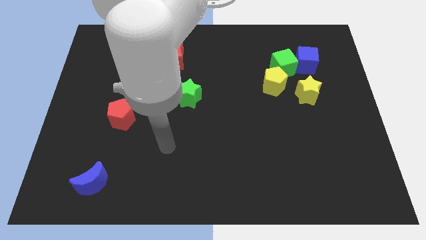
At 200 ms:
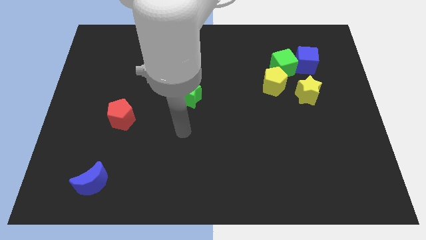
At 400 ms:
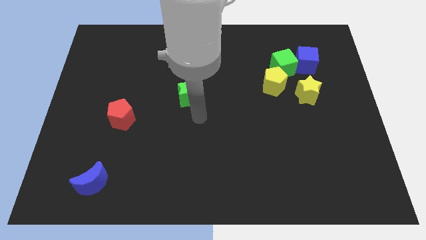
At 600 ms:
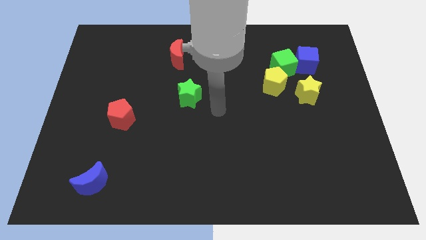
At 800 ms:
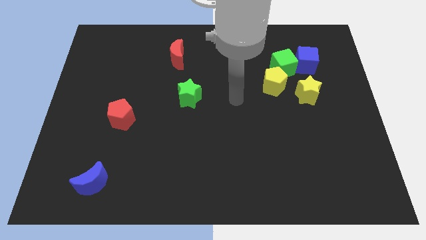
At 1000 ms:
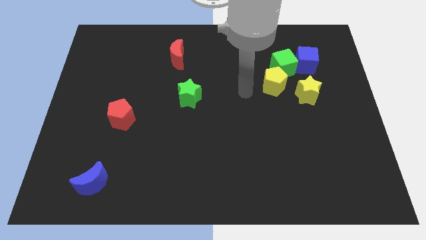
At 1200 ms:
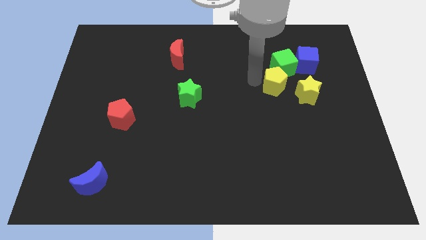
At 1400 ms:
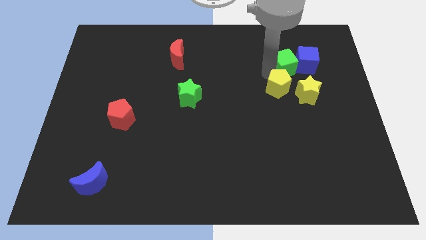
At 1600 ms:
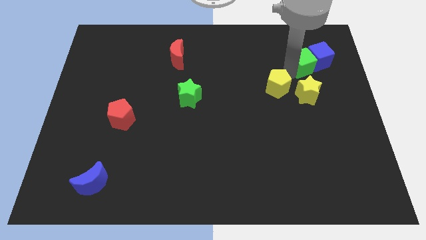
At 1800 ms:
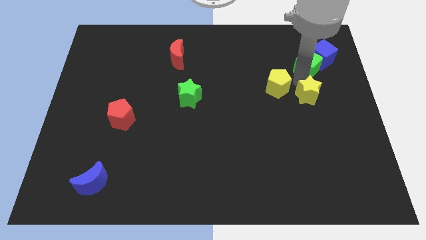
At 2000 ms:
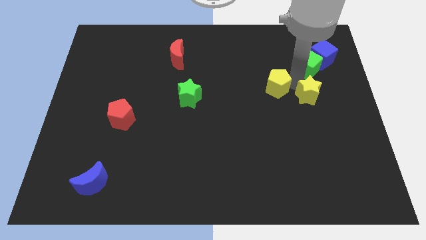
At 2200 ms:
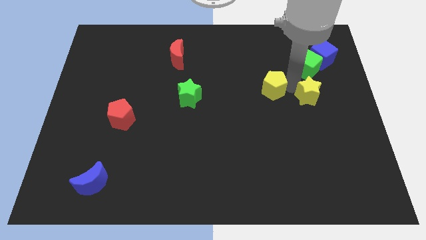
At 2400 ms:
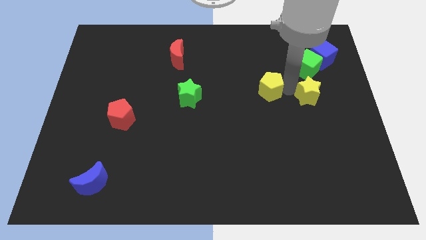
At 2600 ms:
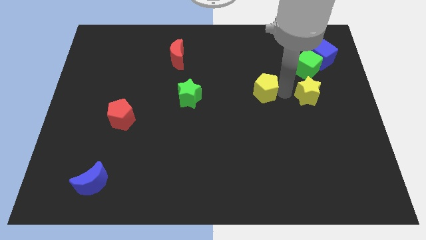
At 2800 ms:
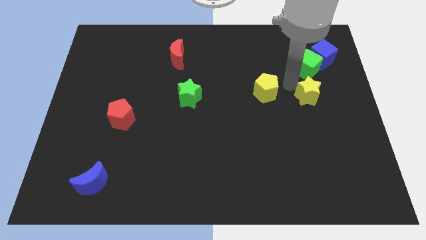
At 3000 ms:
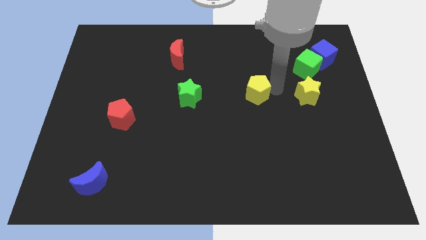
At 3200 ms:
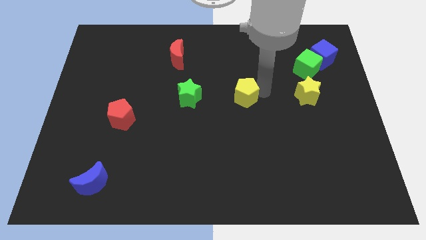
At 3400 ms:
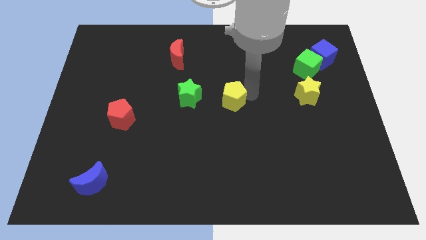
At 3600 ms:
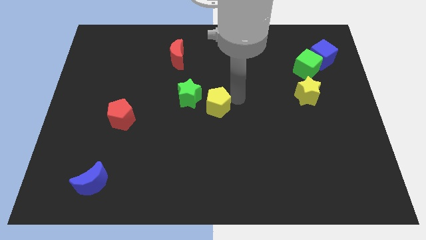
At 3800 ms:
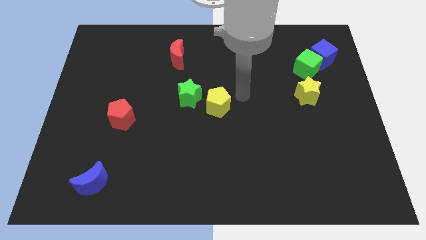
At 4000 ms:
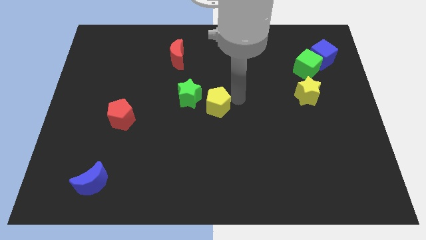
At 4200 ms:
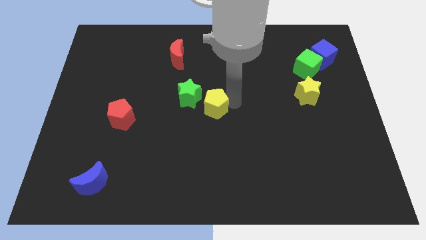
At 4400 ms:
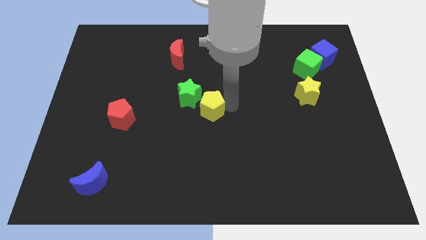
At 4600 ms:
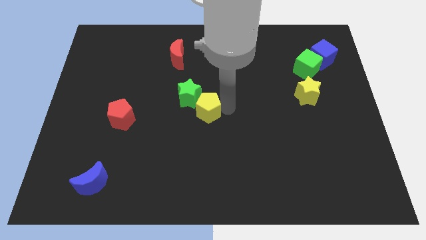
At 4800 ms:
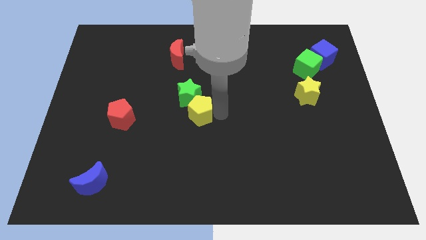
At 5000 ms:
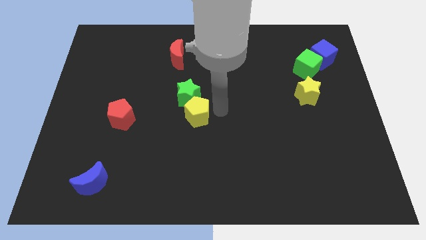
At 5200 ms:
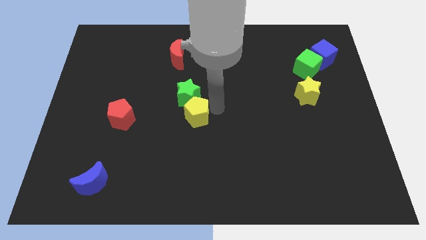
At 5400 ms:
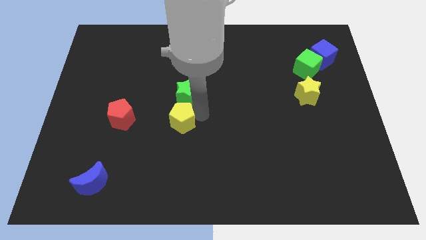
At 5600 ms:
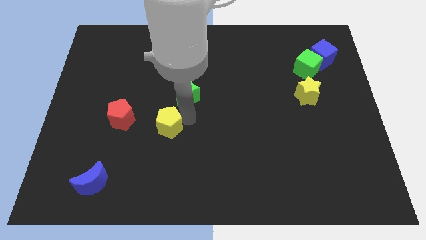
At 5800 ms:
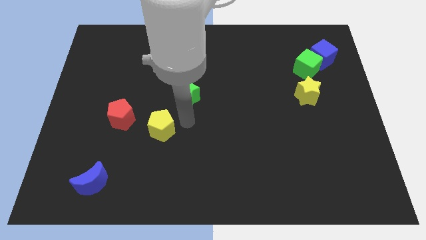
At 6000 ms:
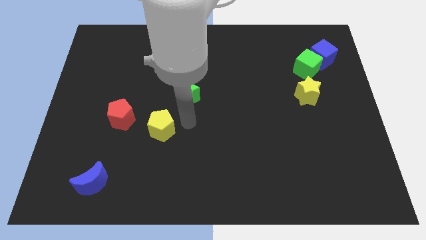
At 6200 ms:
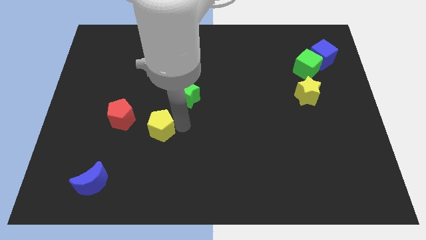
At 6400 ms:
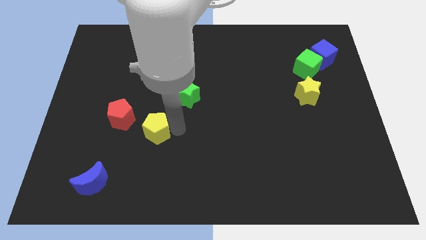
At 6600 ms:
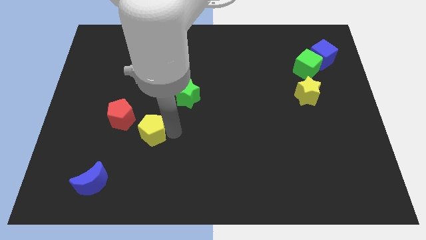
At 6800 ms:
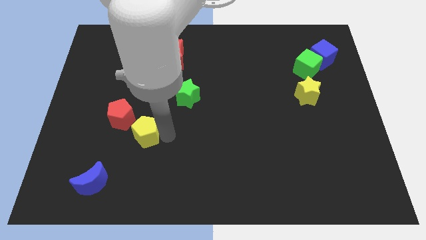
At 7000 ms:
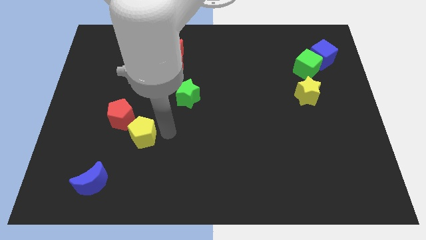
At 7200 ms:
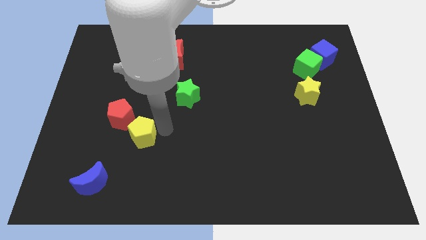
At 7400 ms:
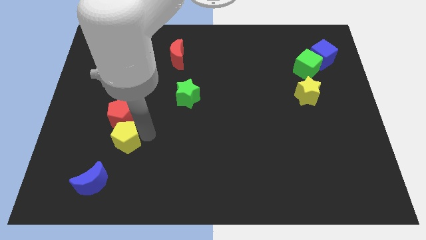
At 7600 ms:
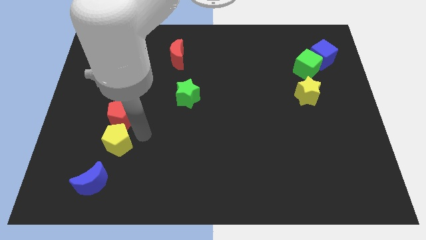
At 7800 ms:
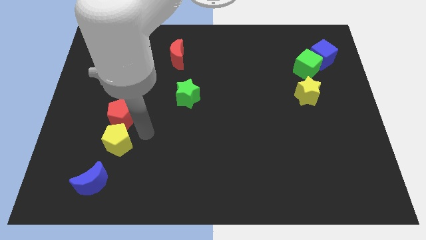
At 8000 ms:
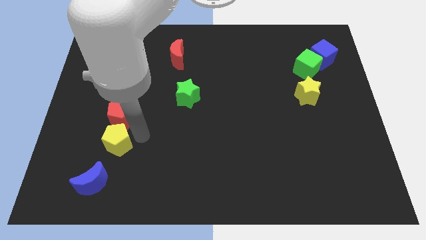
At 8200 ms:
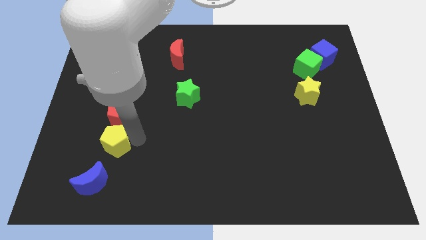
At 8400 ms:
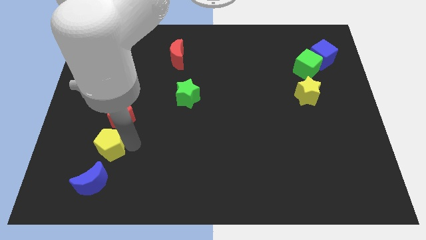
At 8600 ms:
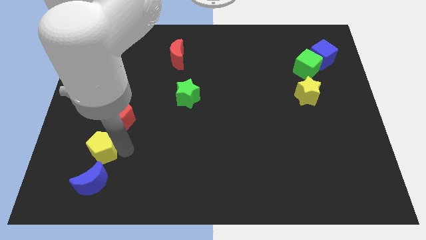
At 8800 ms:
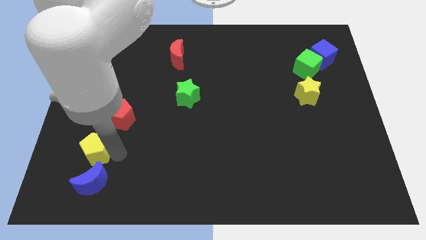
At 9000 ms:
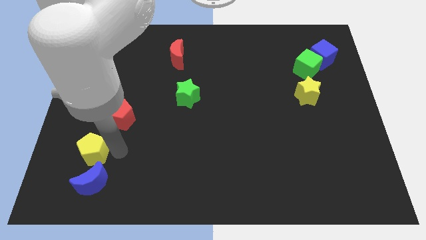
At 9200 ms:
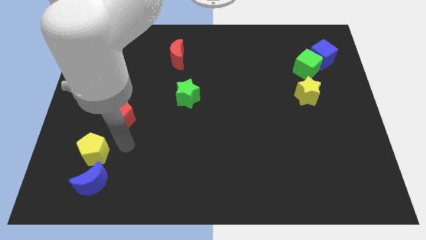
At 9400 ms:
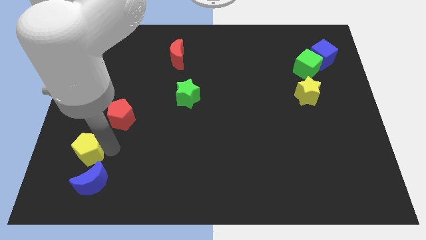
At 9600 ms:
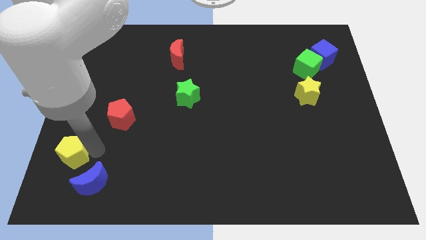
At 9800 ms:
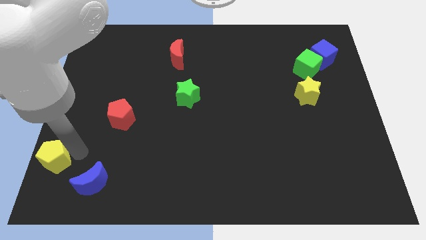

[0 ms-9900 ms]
push the yellow pentagon to the lower left corner

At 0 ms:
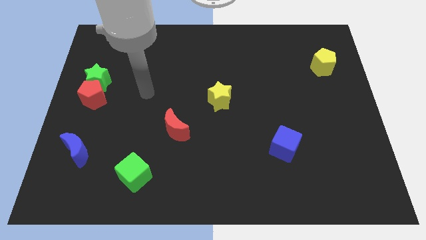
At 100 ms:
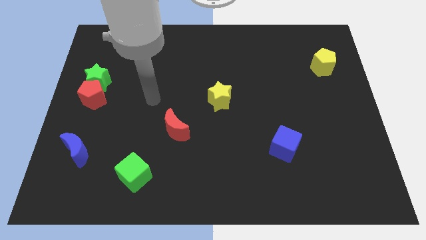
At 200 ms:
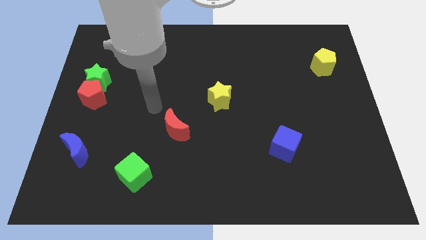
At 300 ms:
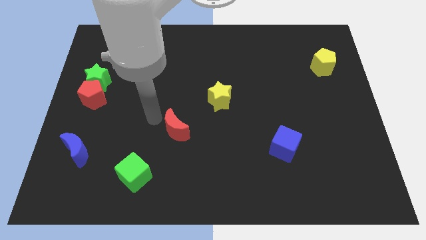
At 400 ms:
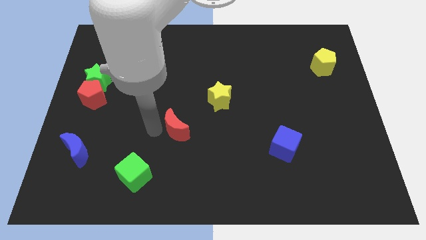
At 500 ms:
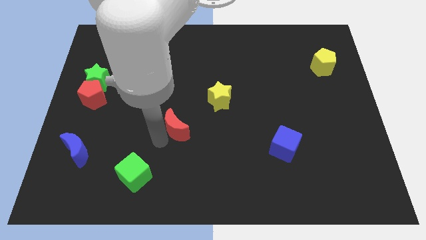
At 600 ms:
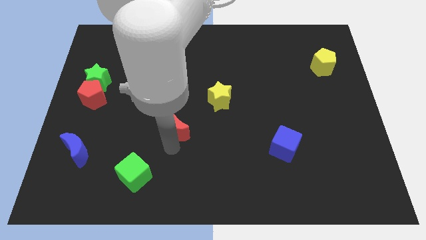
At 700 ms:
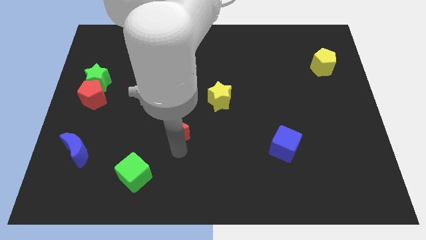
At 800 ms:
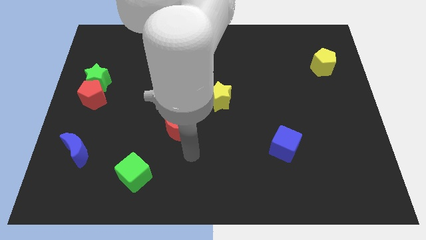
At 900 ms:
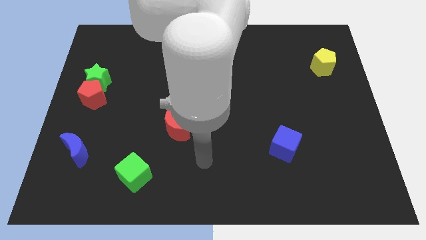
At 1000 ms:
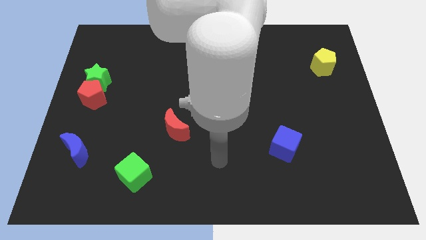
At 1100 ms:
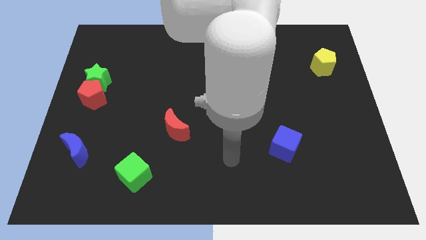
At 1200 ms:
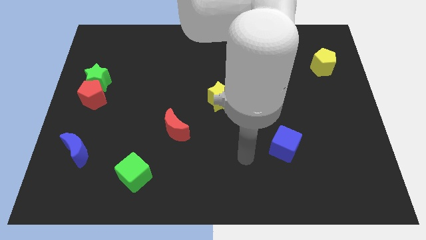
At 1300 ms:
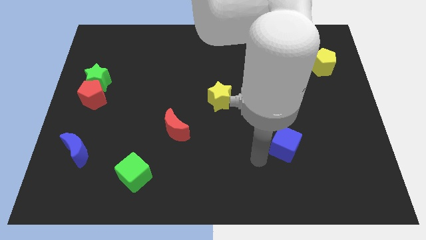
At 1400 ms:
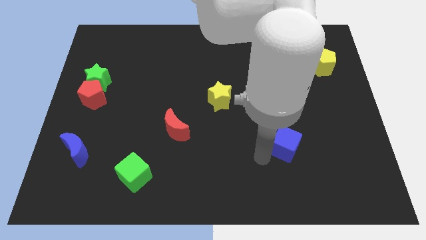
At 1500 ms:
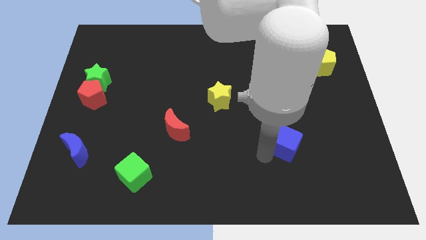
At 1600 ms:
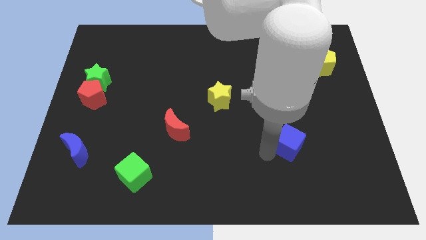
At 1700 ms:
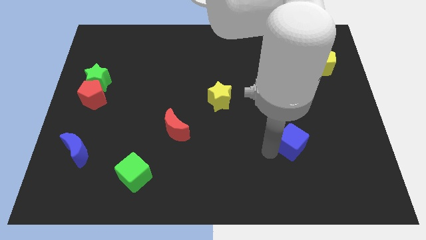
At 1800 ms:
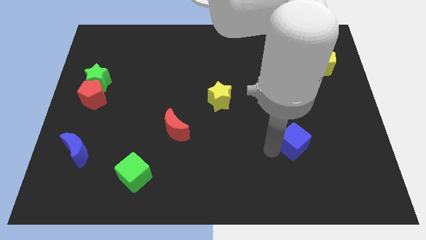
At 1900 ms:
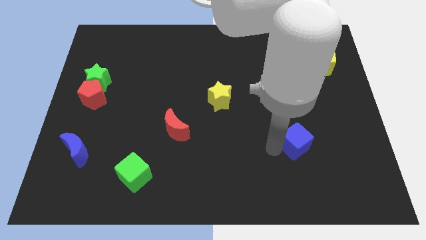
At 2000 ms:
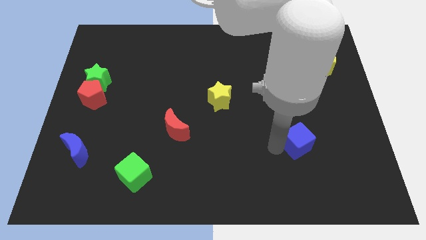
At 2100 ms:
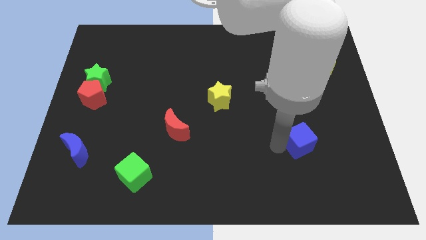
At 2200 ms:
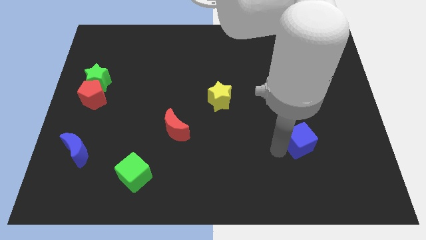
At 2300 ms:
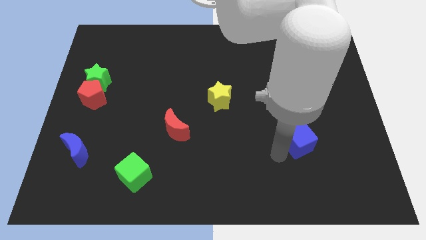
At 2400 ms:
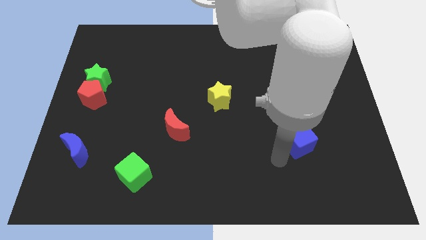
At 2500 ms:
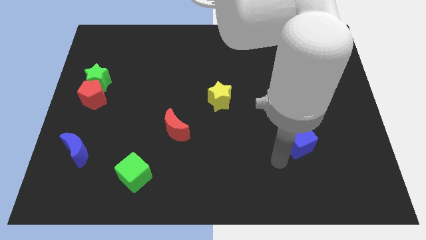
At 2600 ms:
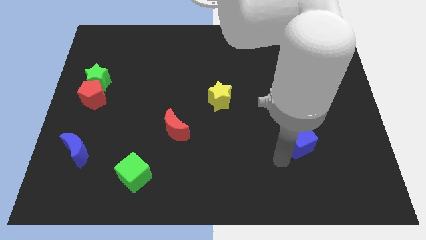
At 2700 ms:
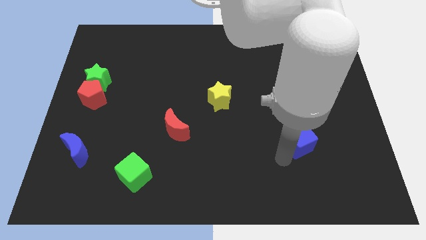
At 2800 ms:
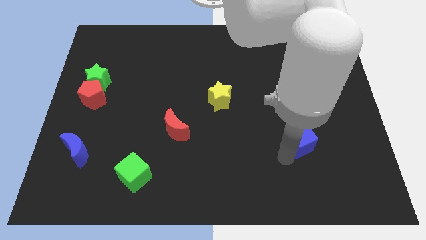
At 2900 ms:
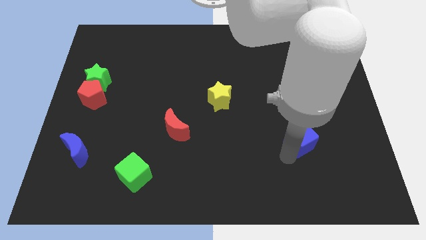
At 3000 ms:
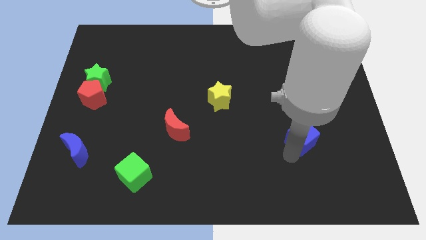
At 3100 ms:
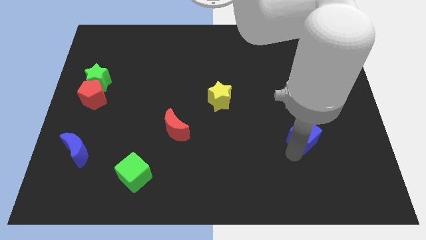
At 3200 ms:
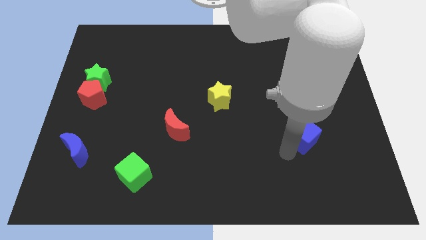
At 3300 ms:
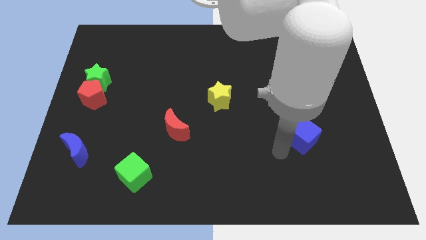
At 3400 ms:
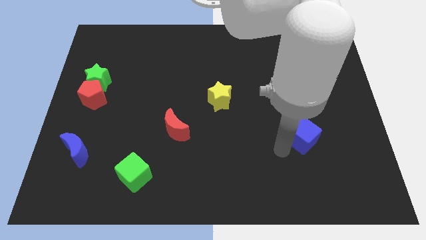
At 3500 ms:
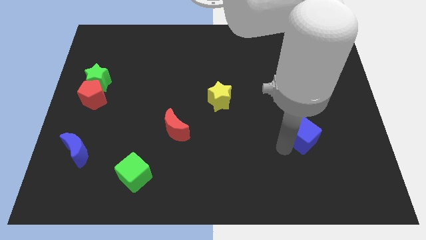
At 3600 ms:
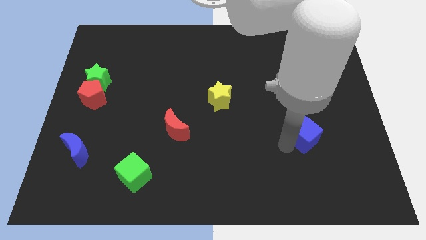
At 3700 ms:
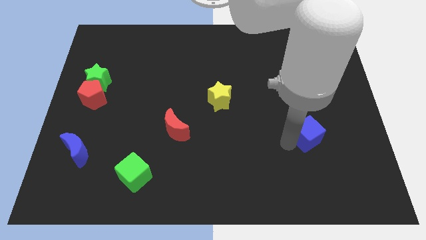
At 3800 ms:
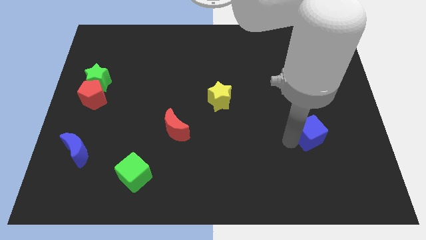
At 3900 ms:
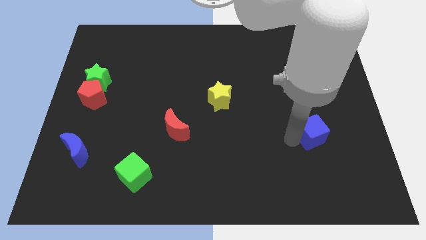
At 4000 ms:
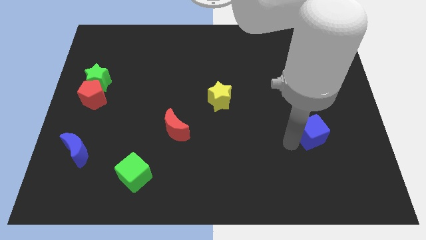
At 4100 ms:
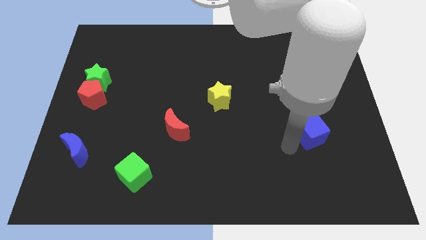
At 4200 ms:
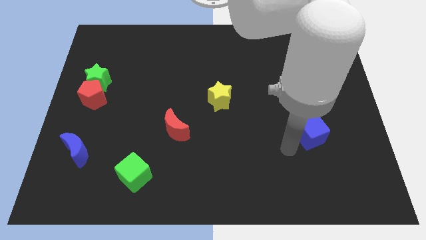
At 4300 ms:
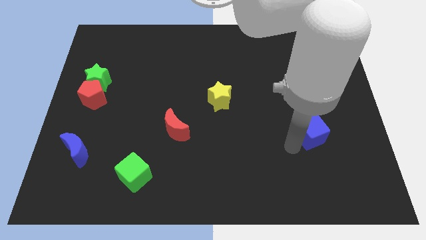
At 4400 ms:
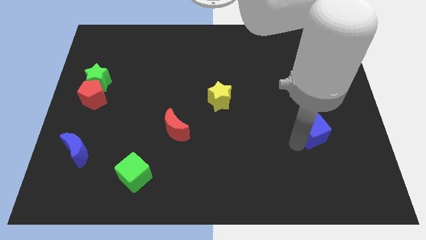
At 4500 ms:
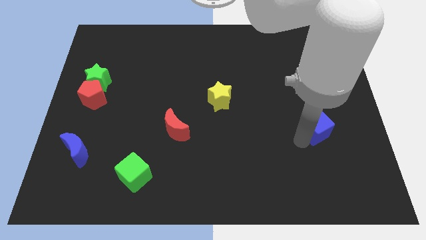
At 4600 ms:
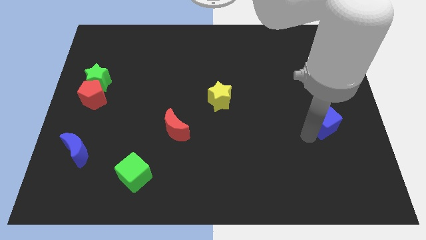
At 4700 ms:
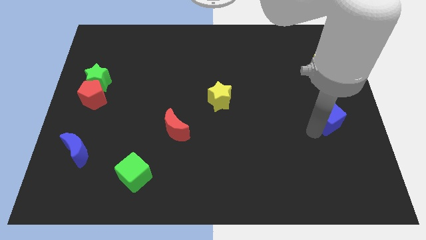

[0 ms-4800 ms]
put the blue cube to the center right
